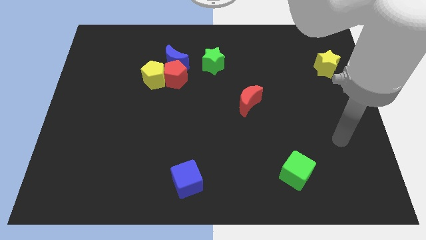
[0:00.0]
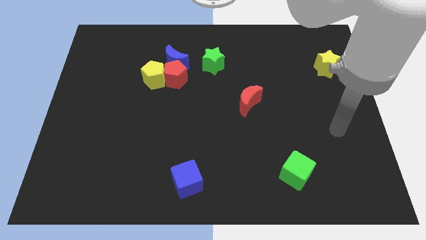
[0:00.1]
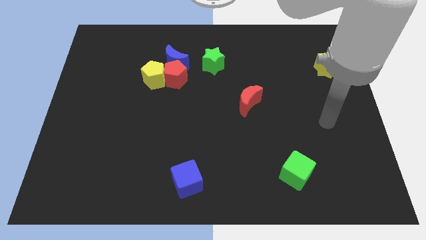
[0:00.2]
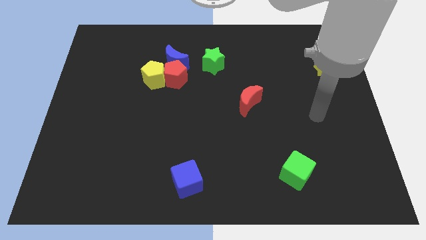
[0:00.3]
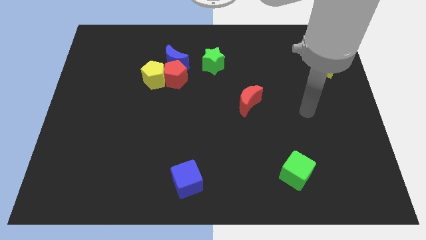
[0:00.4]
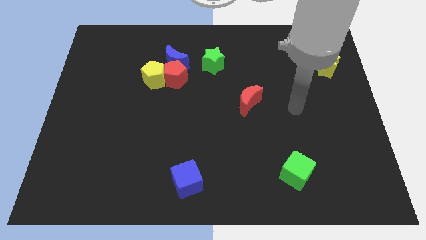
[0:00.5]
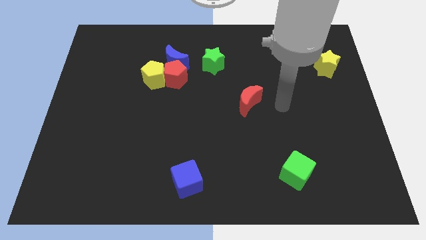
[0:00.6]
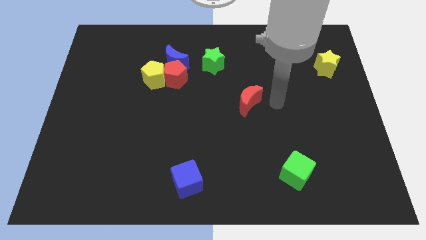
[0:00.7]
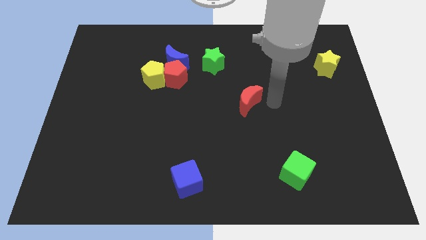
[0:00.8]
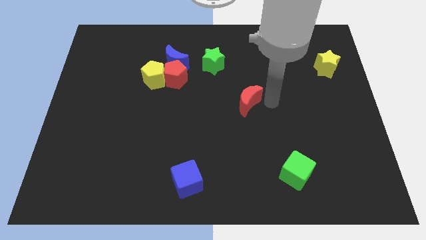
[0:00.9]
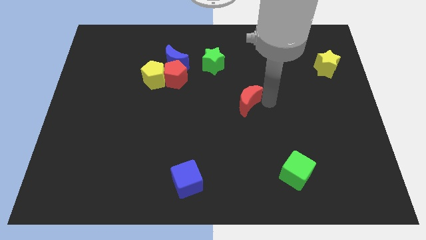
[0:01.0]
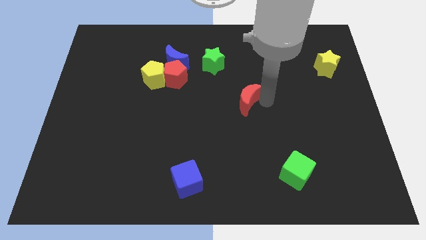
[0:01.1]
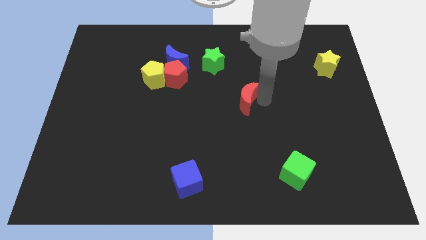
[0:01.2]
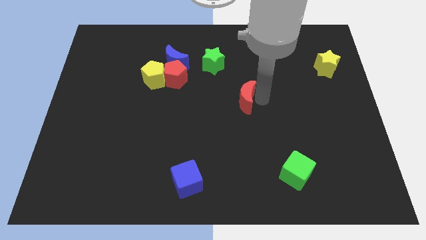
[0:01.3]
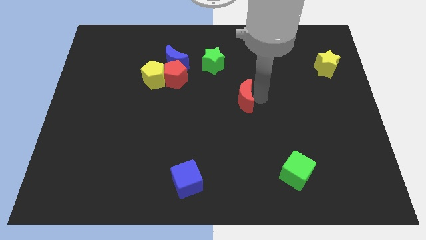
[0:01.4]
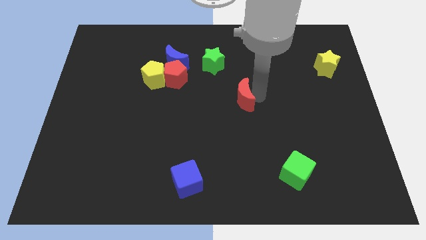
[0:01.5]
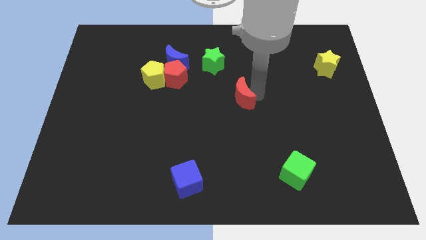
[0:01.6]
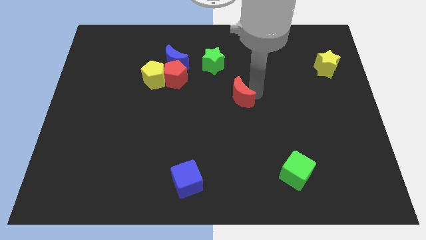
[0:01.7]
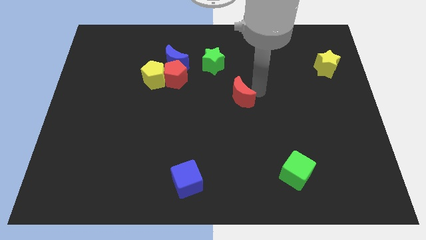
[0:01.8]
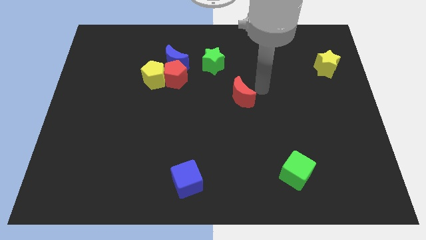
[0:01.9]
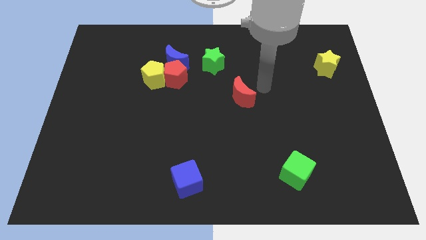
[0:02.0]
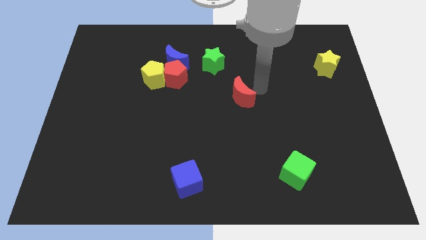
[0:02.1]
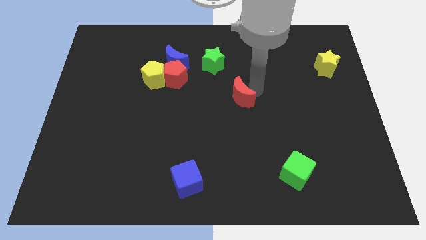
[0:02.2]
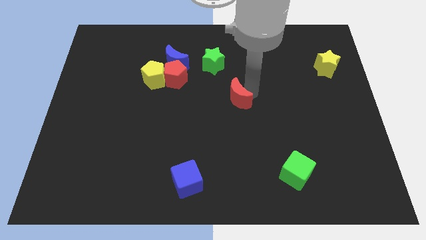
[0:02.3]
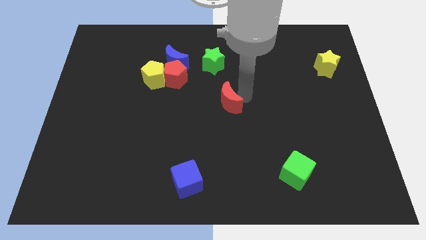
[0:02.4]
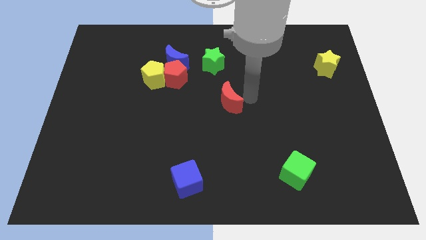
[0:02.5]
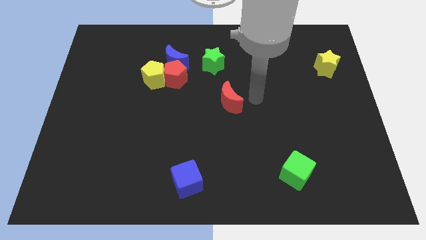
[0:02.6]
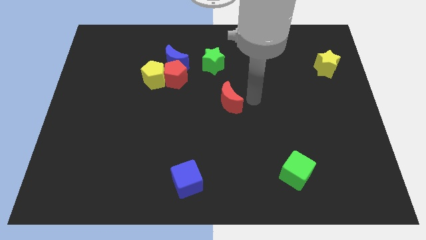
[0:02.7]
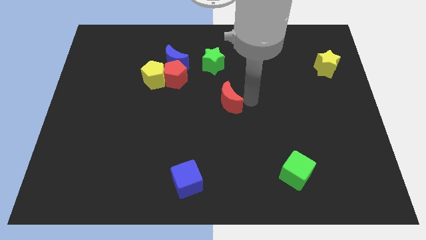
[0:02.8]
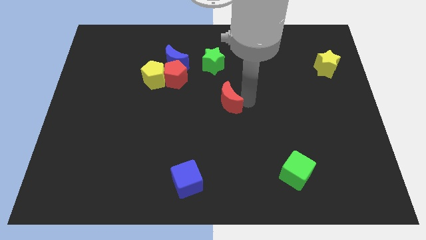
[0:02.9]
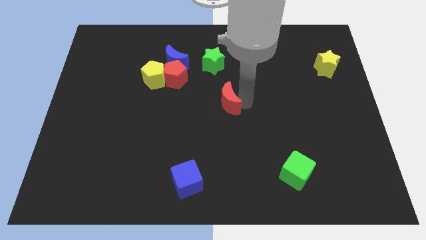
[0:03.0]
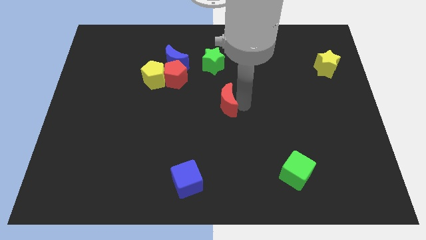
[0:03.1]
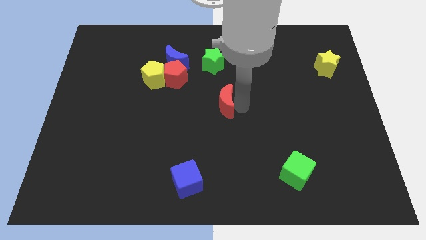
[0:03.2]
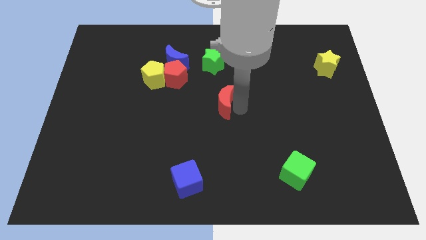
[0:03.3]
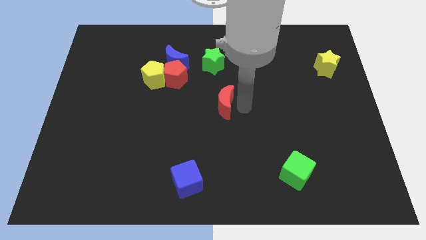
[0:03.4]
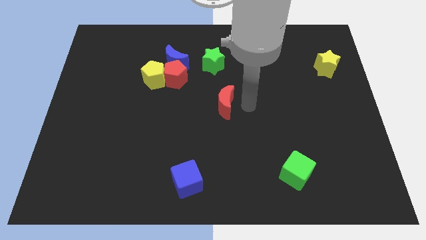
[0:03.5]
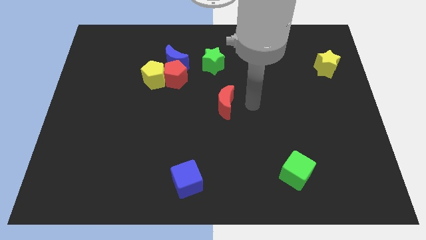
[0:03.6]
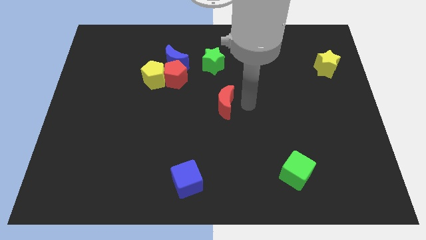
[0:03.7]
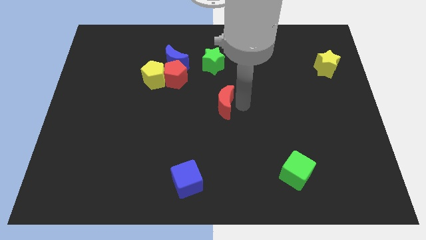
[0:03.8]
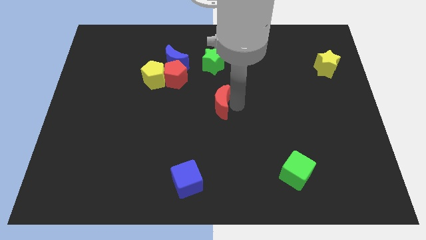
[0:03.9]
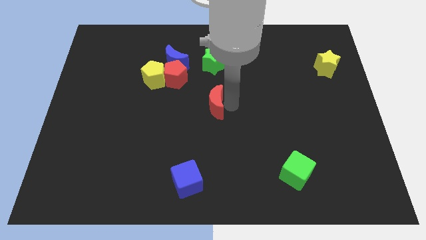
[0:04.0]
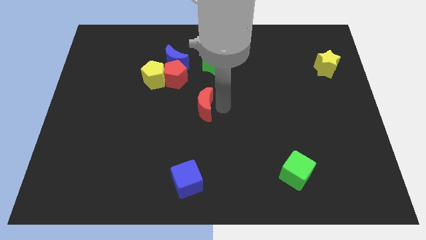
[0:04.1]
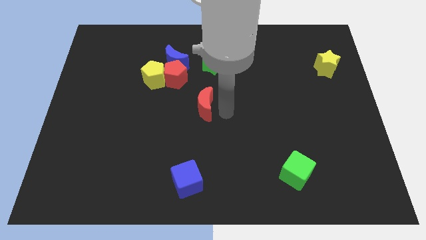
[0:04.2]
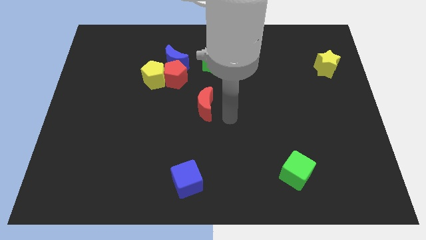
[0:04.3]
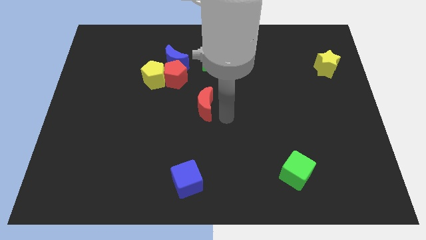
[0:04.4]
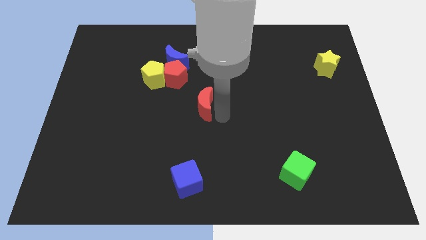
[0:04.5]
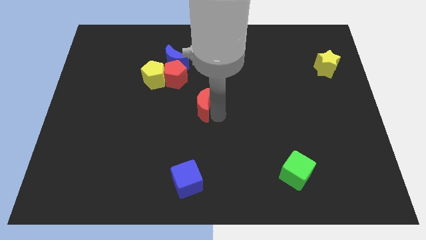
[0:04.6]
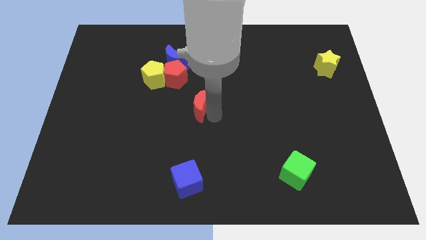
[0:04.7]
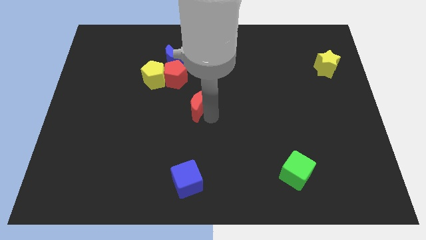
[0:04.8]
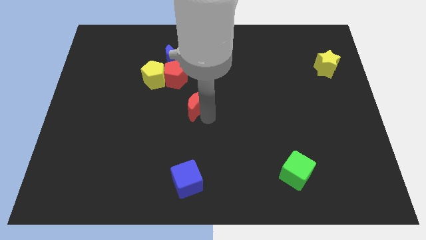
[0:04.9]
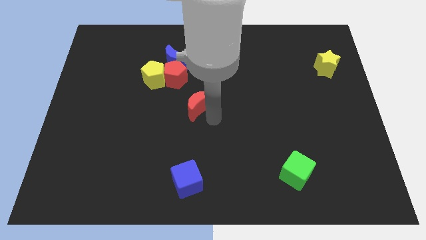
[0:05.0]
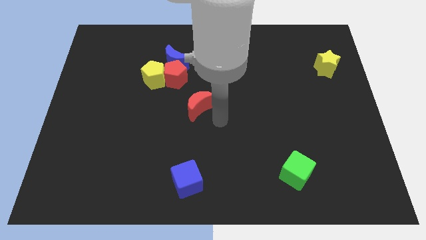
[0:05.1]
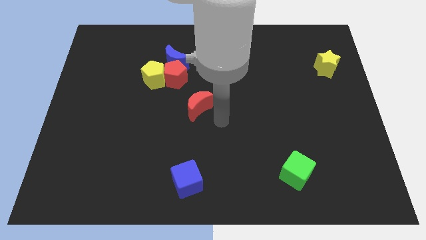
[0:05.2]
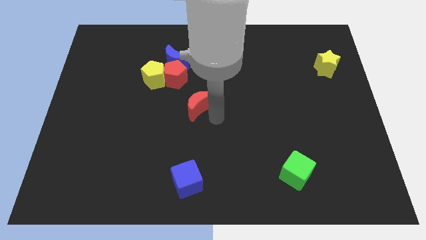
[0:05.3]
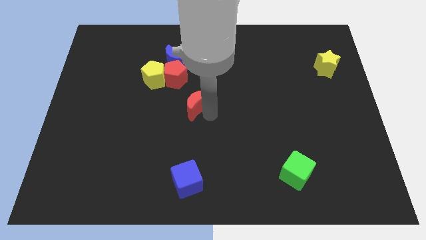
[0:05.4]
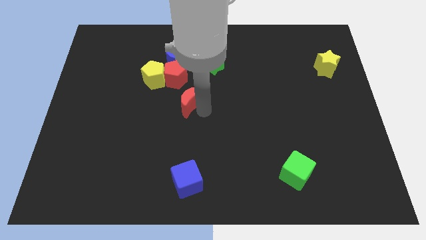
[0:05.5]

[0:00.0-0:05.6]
move the red moon diagonally down and to the right of the yellow pentagon

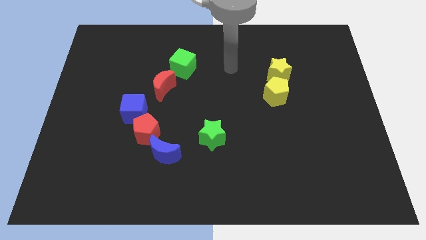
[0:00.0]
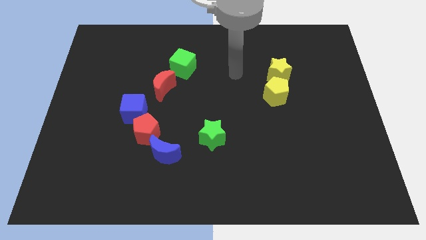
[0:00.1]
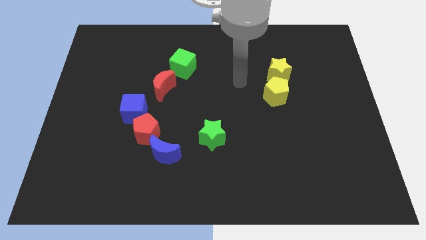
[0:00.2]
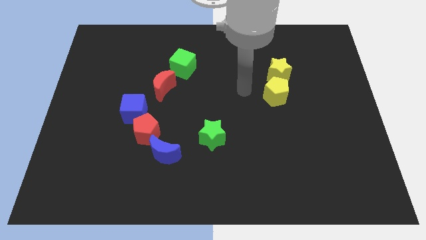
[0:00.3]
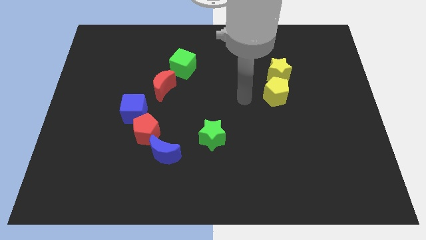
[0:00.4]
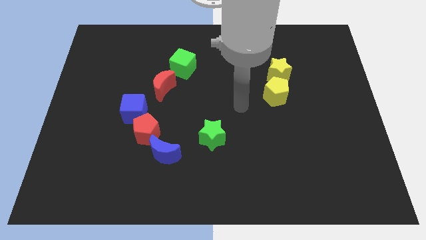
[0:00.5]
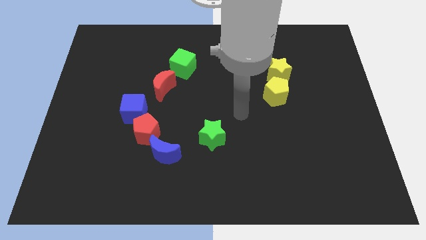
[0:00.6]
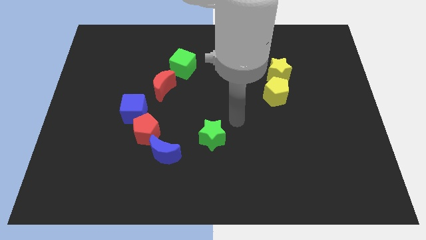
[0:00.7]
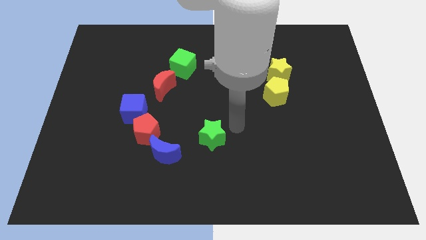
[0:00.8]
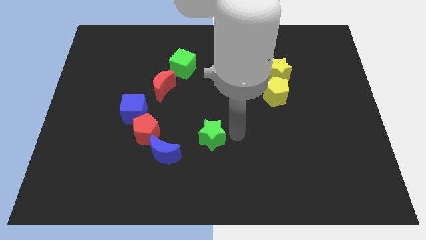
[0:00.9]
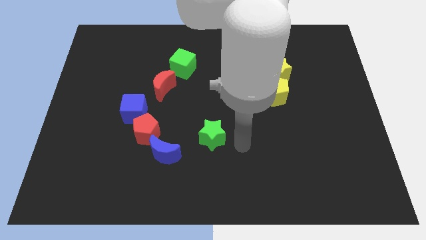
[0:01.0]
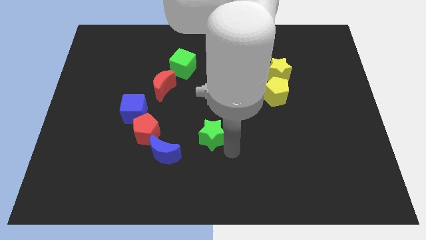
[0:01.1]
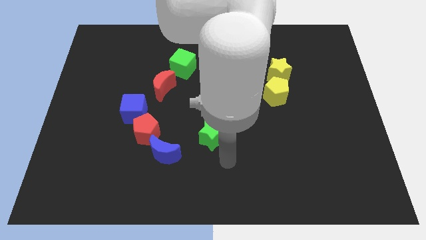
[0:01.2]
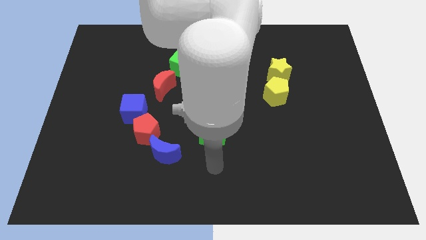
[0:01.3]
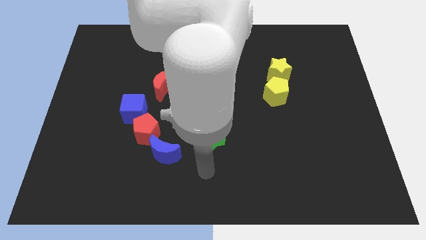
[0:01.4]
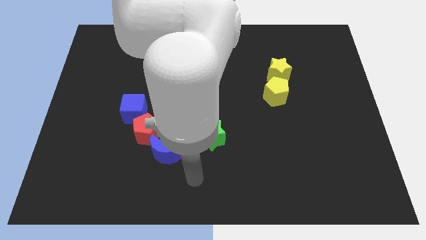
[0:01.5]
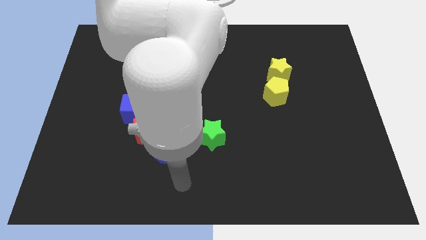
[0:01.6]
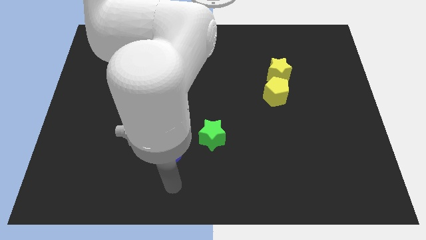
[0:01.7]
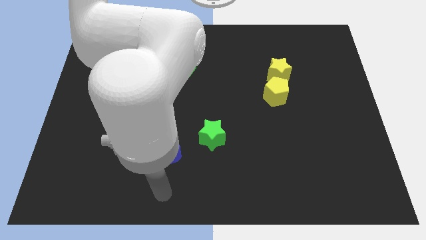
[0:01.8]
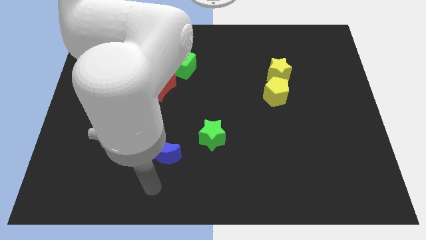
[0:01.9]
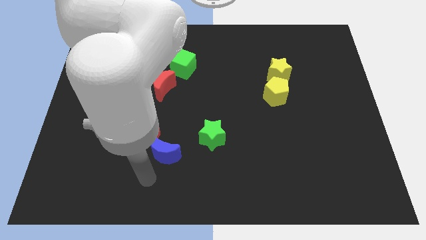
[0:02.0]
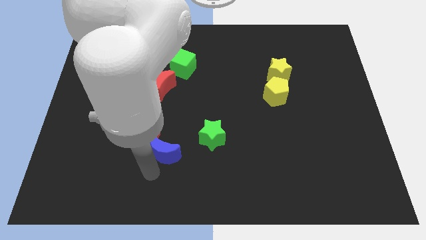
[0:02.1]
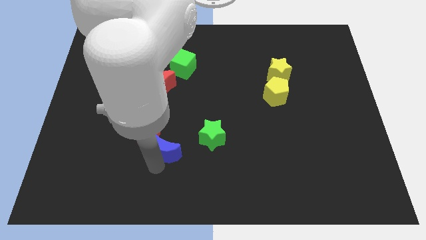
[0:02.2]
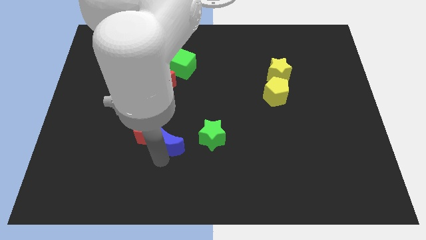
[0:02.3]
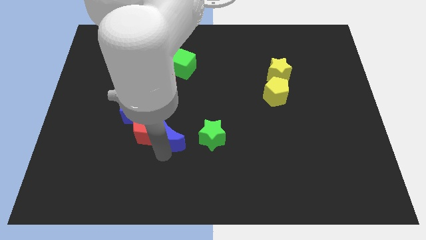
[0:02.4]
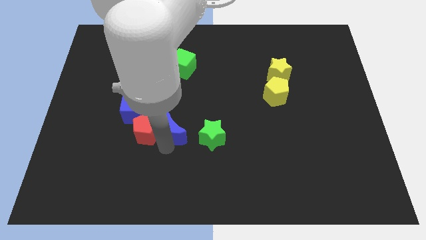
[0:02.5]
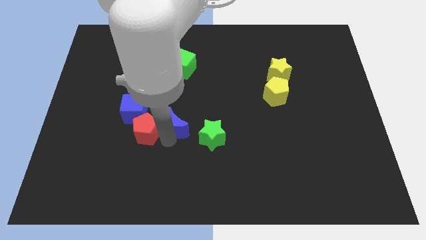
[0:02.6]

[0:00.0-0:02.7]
move the blue moon to the top left of the green star

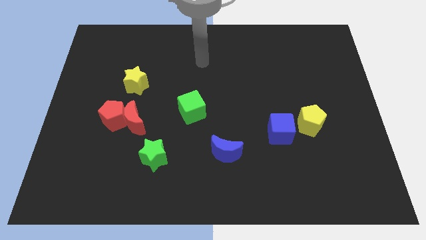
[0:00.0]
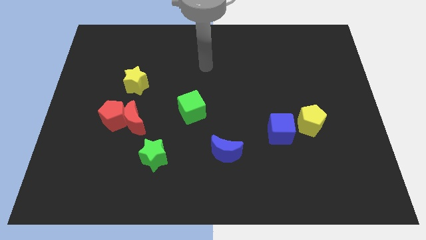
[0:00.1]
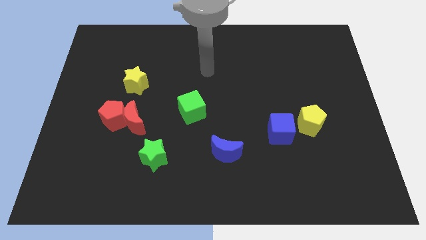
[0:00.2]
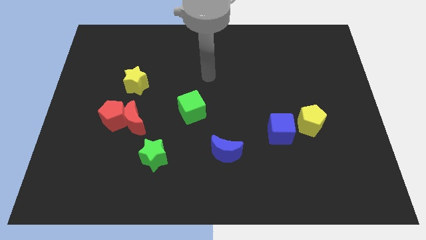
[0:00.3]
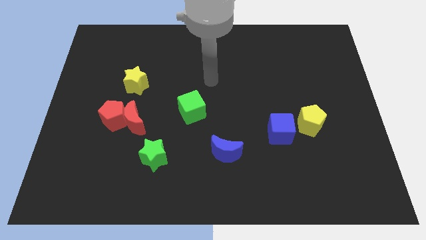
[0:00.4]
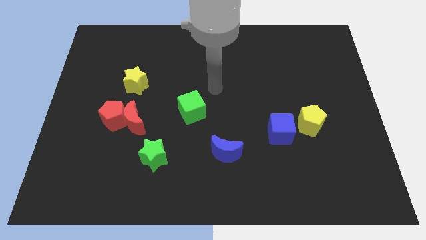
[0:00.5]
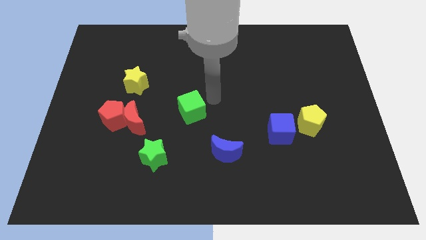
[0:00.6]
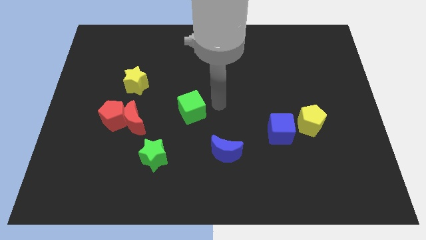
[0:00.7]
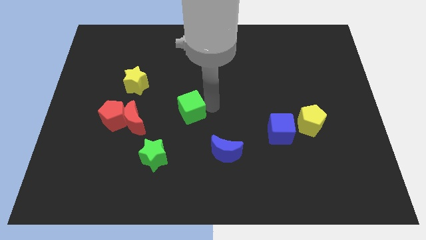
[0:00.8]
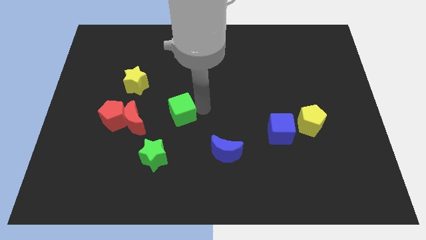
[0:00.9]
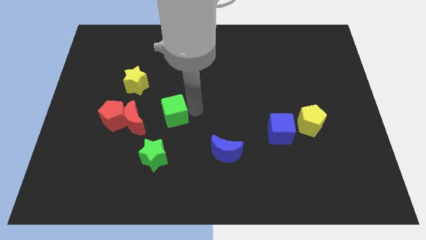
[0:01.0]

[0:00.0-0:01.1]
slide the green cube to the top of the green star
